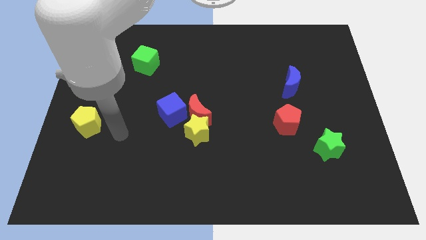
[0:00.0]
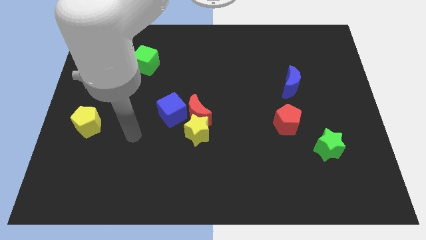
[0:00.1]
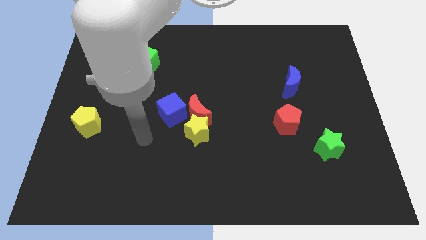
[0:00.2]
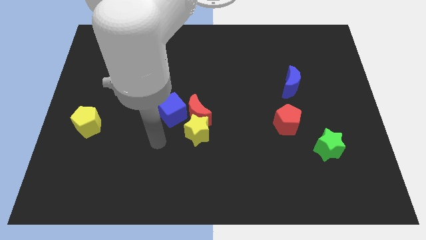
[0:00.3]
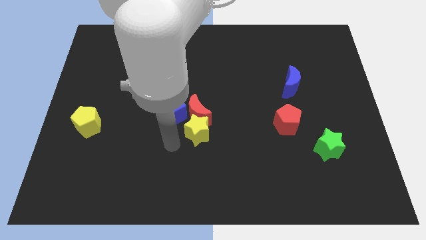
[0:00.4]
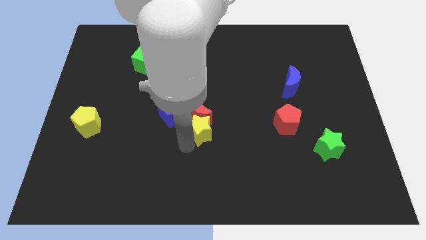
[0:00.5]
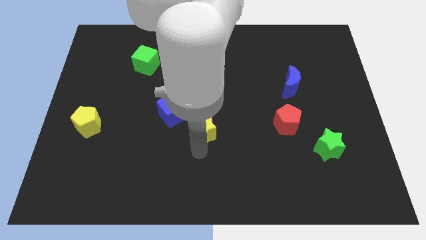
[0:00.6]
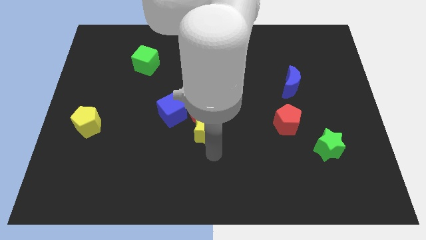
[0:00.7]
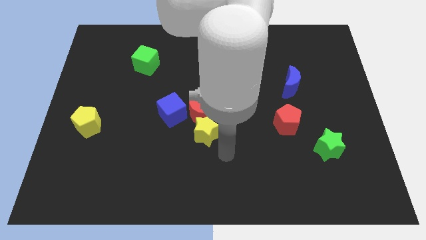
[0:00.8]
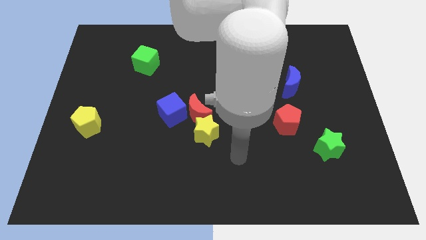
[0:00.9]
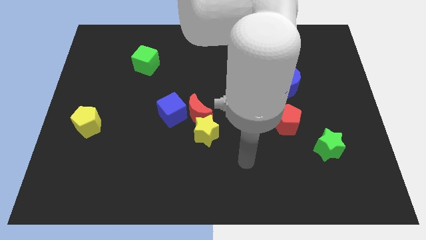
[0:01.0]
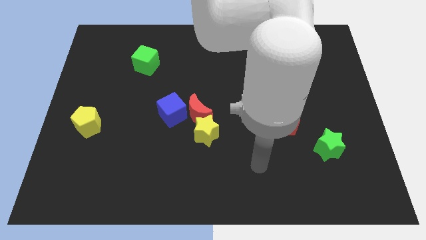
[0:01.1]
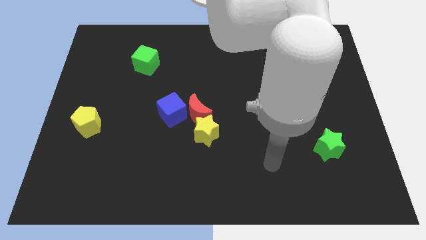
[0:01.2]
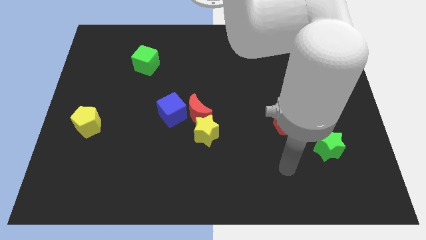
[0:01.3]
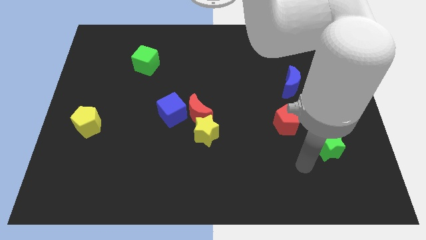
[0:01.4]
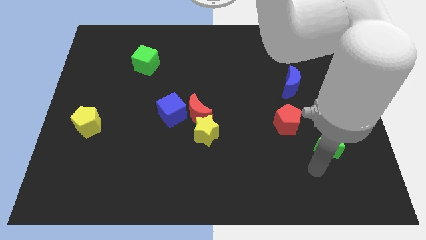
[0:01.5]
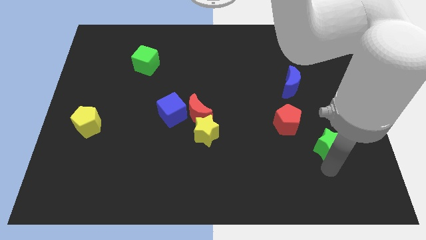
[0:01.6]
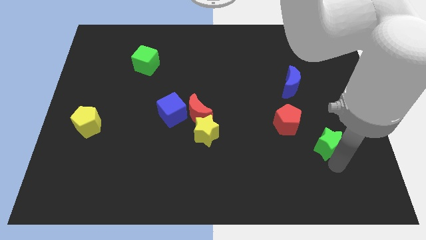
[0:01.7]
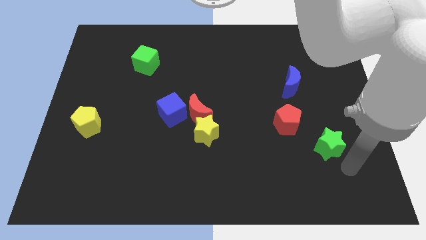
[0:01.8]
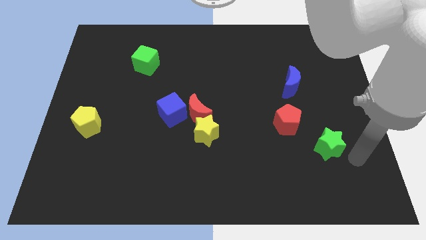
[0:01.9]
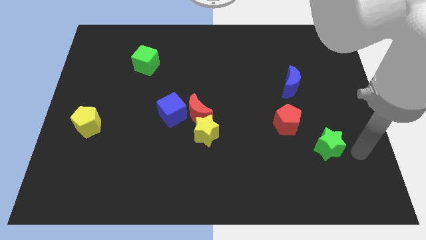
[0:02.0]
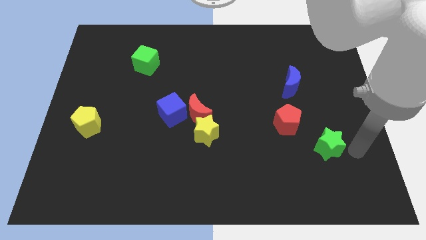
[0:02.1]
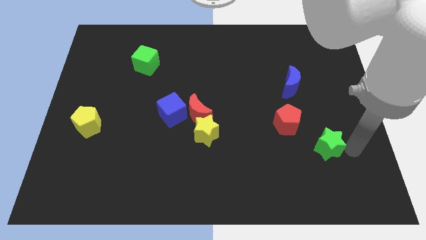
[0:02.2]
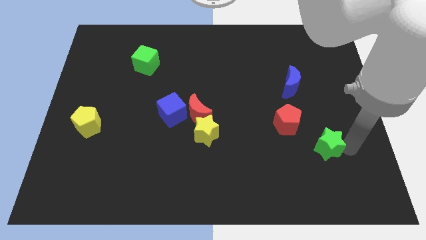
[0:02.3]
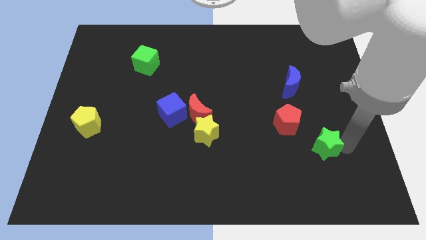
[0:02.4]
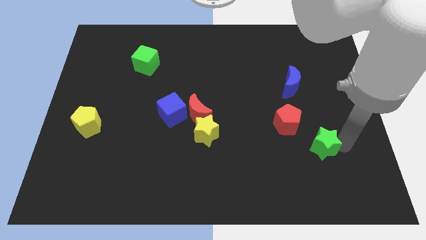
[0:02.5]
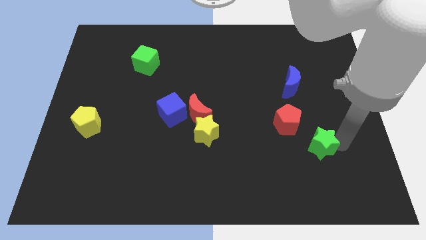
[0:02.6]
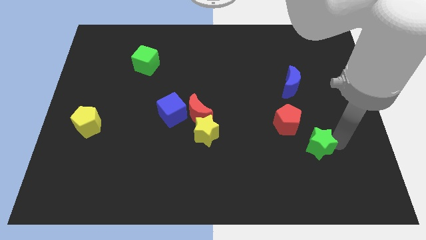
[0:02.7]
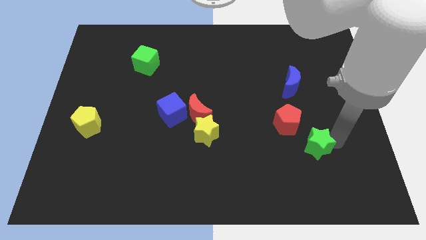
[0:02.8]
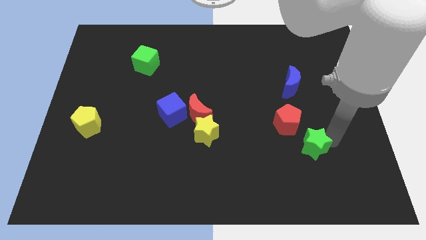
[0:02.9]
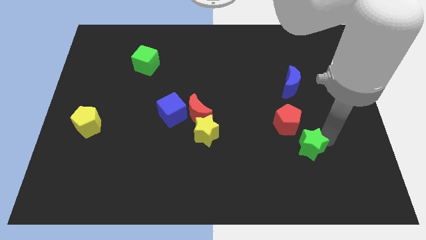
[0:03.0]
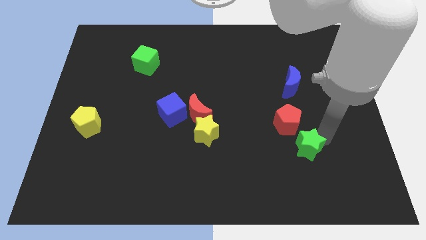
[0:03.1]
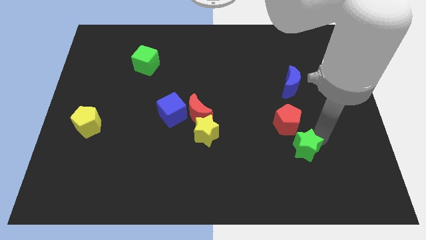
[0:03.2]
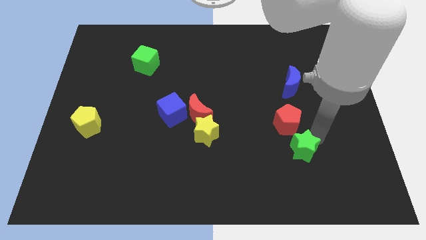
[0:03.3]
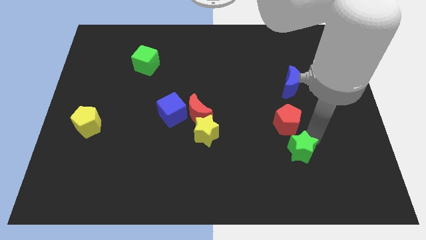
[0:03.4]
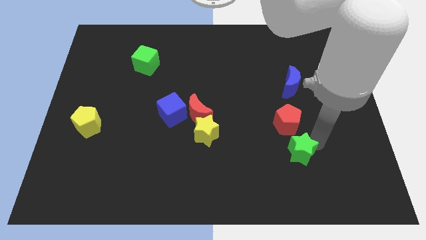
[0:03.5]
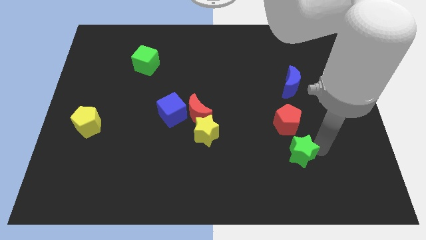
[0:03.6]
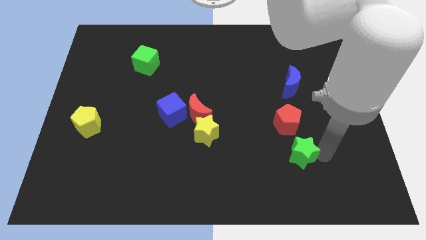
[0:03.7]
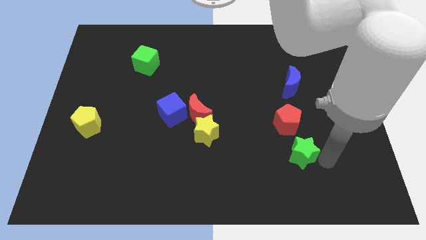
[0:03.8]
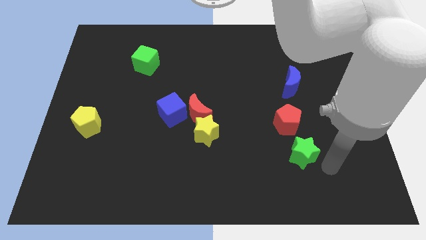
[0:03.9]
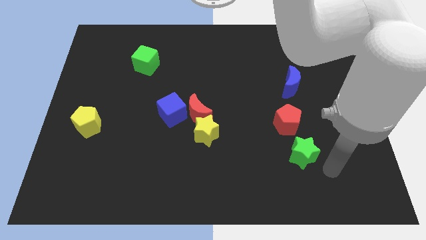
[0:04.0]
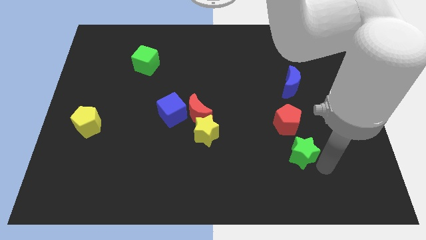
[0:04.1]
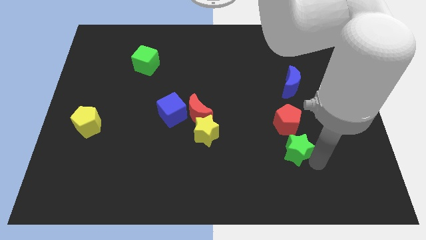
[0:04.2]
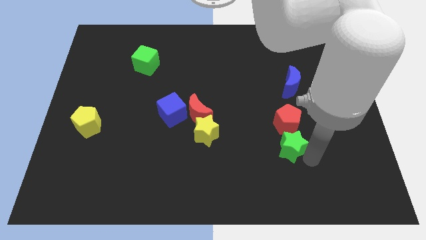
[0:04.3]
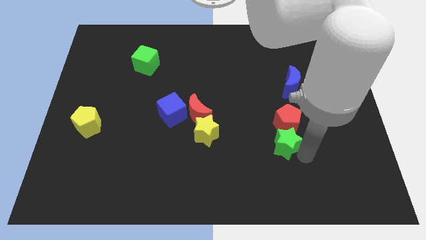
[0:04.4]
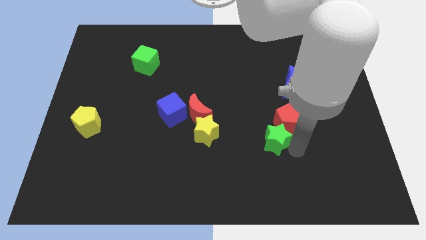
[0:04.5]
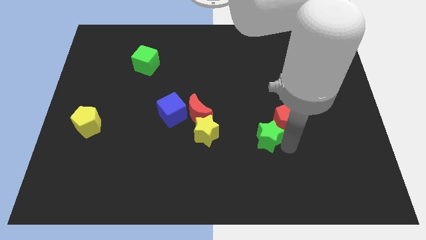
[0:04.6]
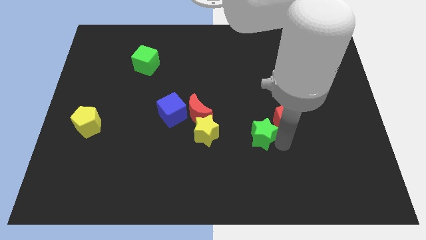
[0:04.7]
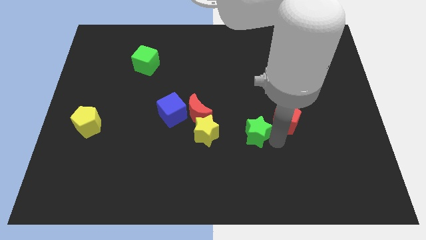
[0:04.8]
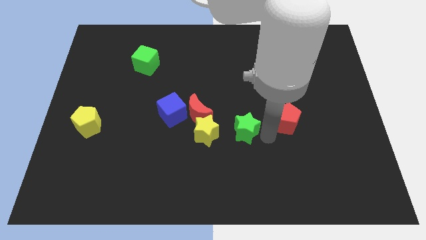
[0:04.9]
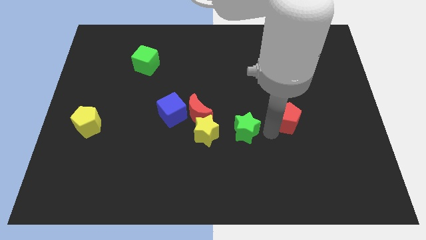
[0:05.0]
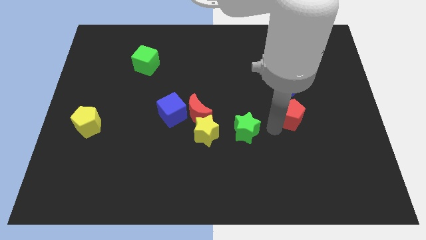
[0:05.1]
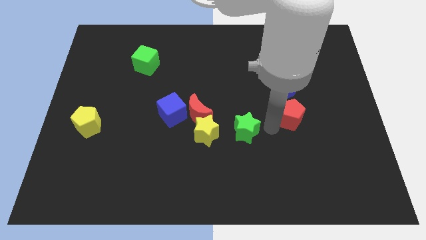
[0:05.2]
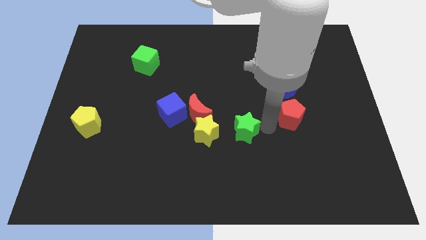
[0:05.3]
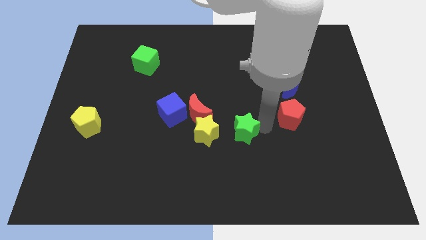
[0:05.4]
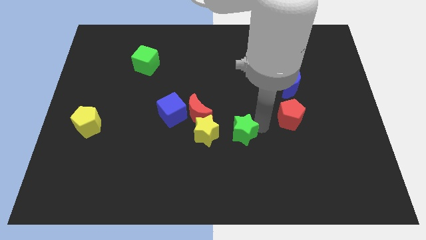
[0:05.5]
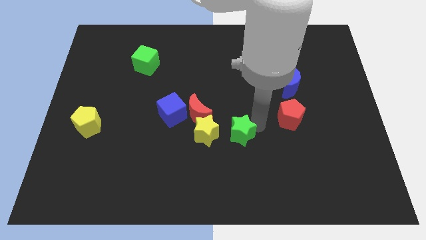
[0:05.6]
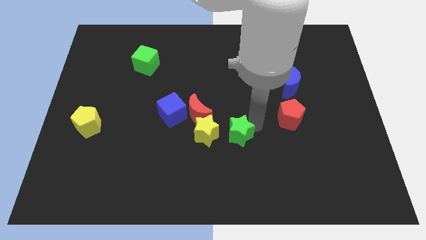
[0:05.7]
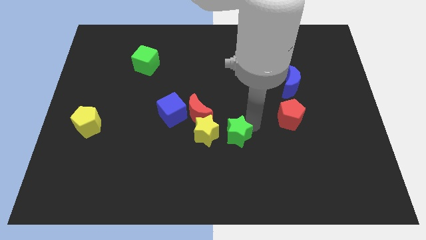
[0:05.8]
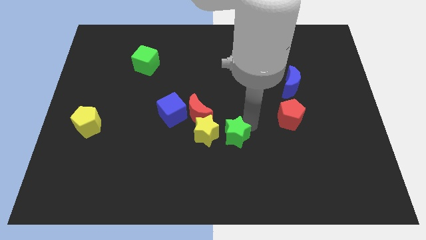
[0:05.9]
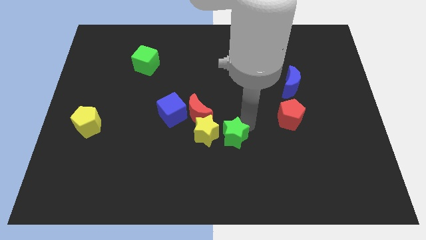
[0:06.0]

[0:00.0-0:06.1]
put the green star next to the yellow star
